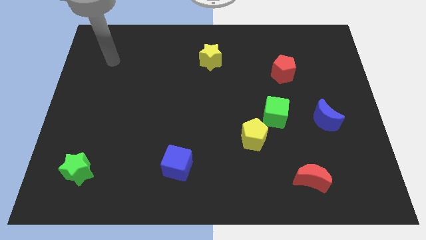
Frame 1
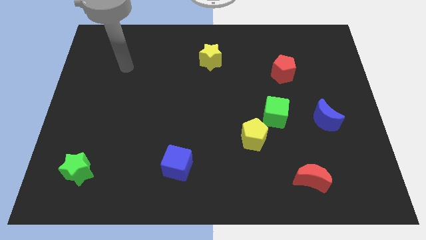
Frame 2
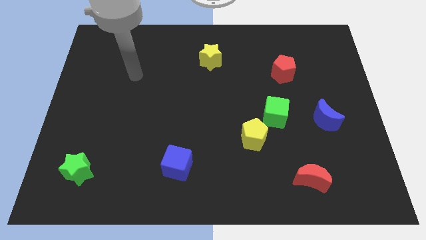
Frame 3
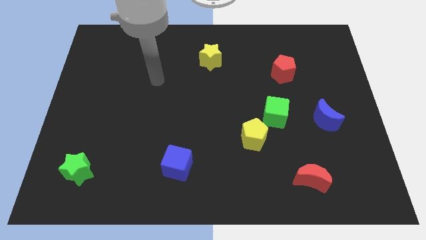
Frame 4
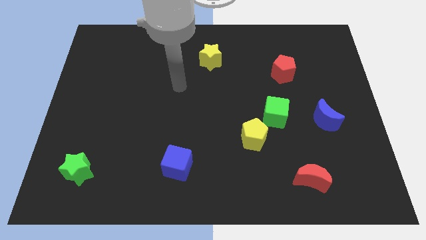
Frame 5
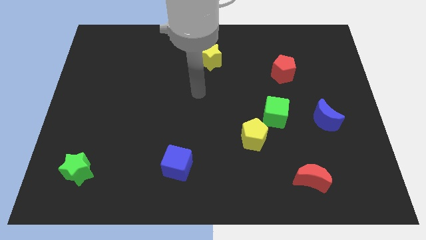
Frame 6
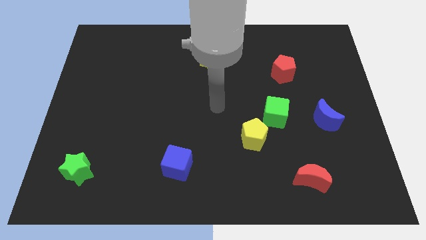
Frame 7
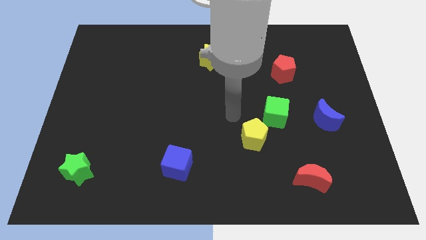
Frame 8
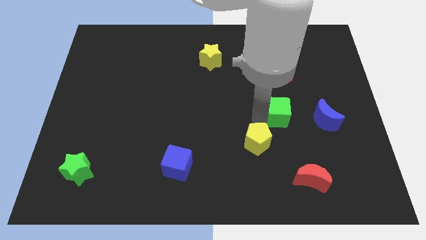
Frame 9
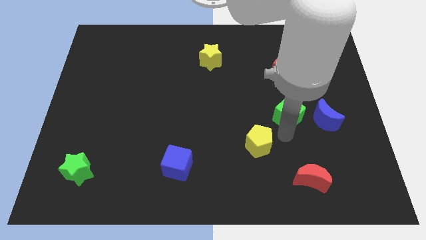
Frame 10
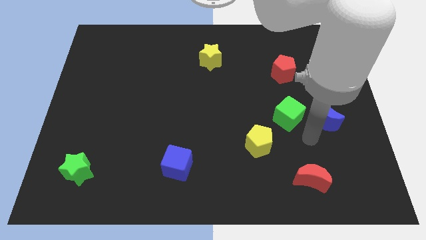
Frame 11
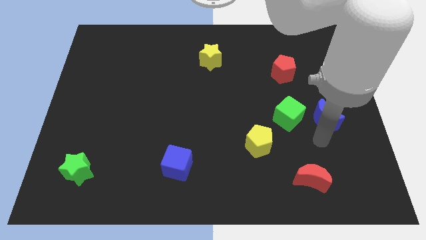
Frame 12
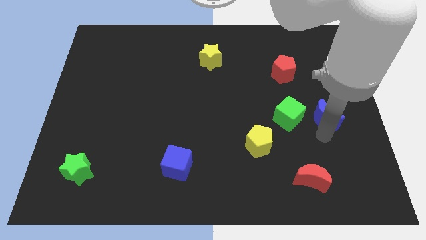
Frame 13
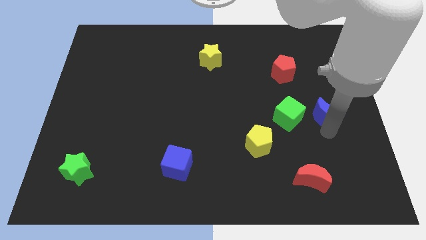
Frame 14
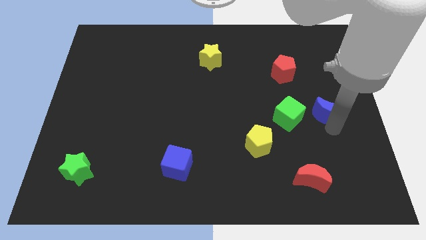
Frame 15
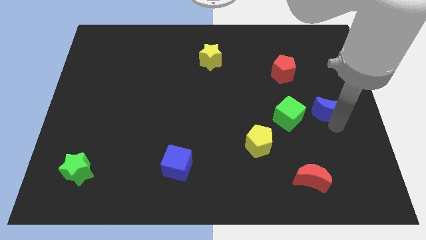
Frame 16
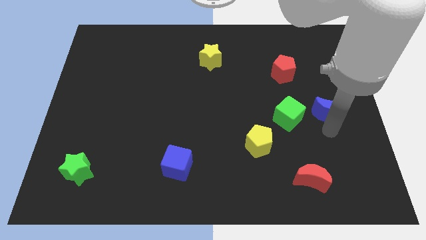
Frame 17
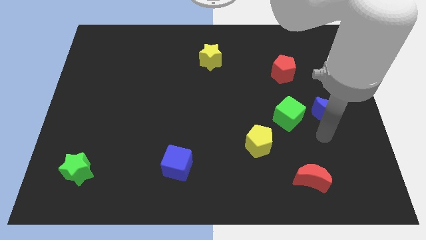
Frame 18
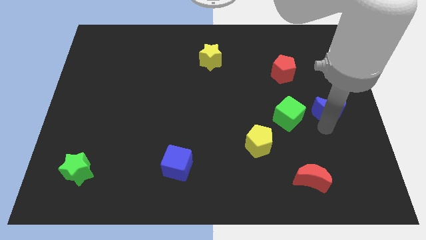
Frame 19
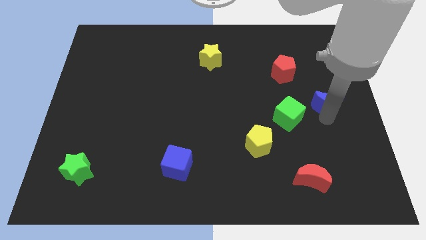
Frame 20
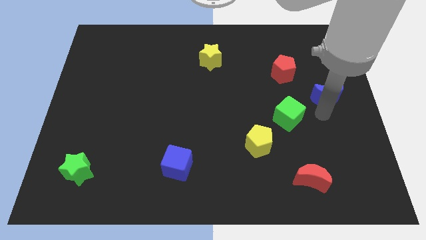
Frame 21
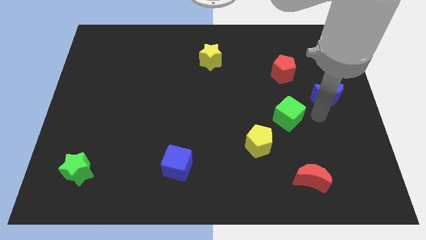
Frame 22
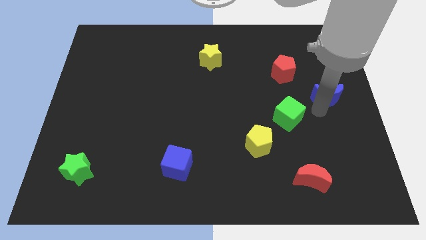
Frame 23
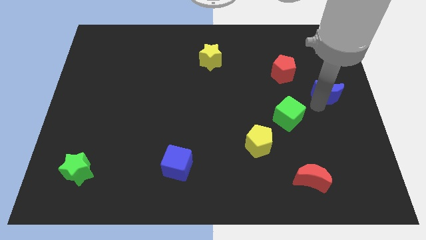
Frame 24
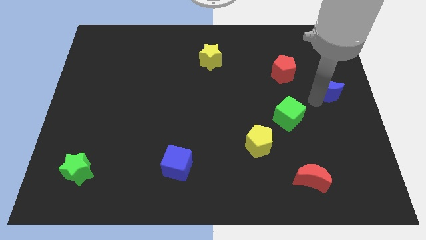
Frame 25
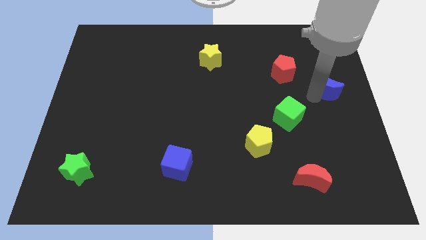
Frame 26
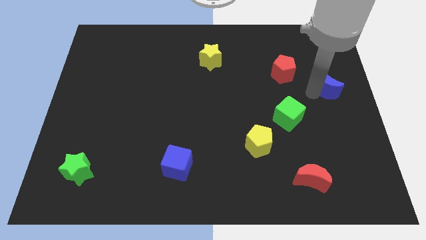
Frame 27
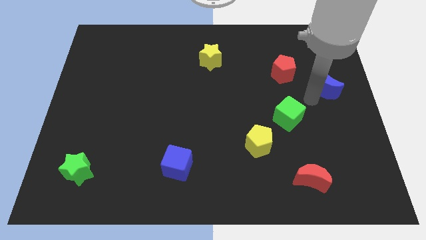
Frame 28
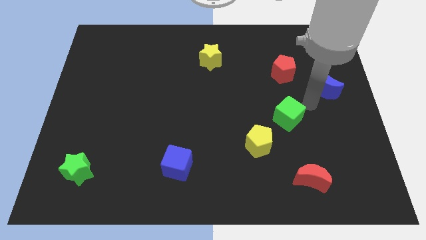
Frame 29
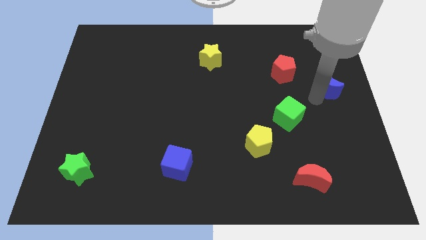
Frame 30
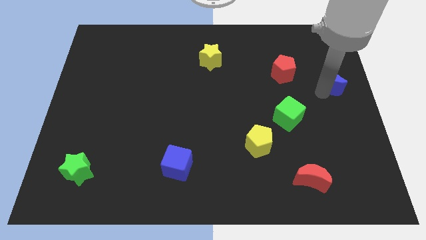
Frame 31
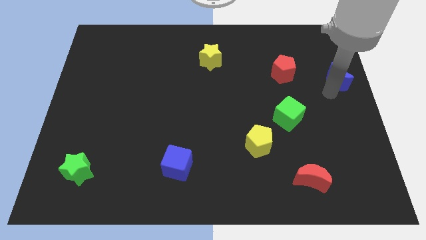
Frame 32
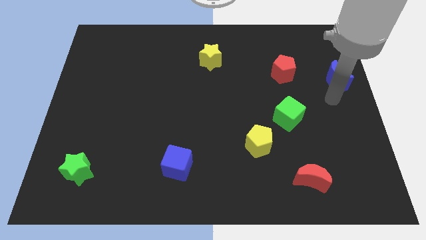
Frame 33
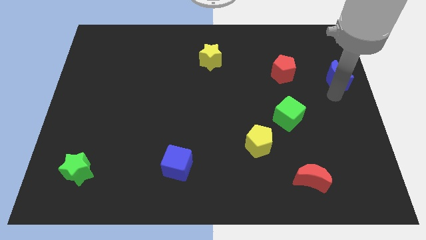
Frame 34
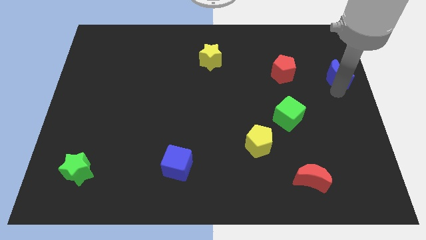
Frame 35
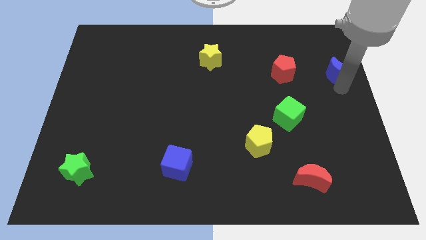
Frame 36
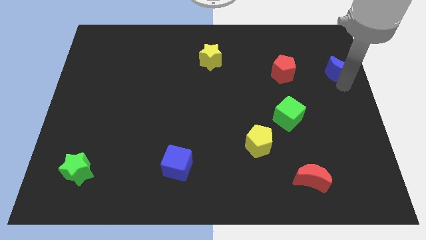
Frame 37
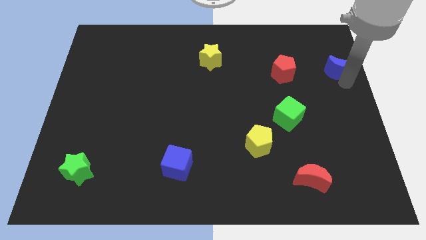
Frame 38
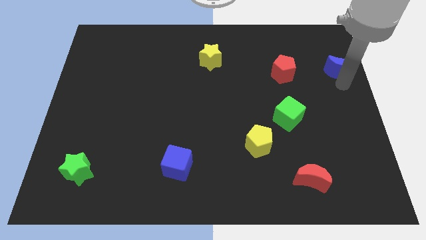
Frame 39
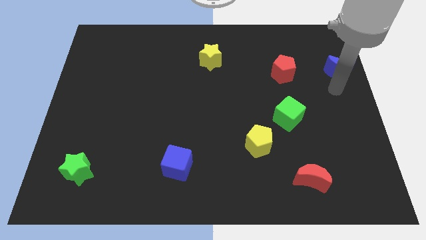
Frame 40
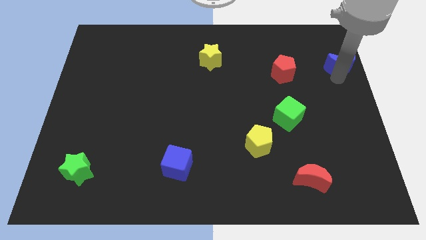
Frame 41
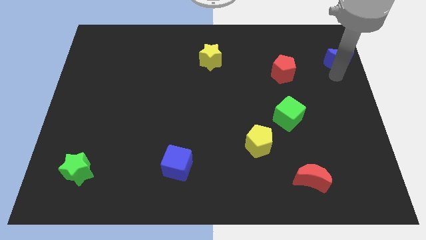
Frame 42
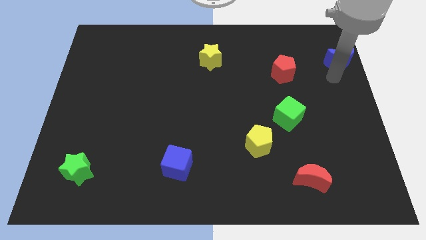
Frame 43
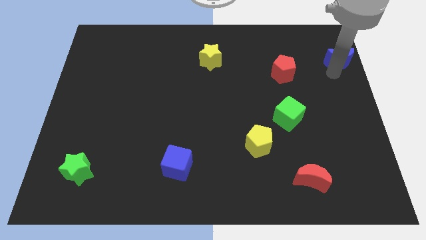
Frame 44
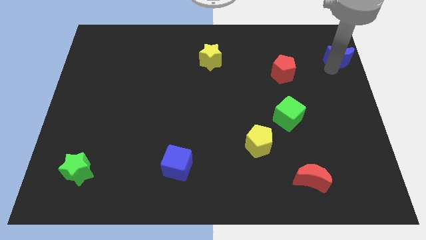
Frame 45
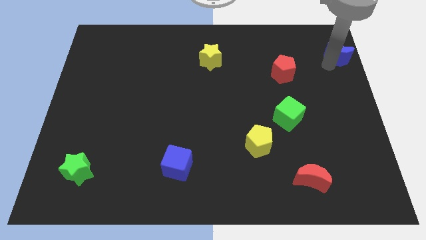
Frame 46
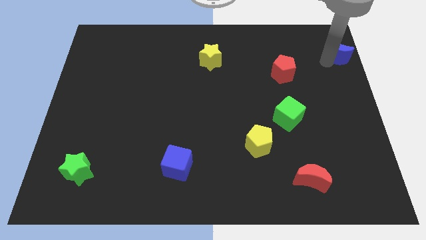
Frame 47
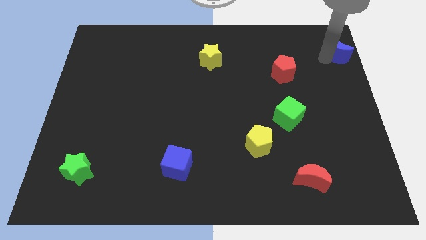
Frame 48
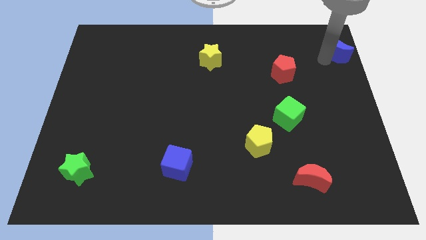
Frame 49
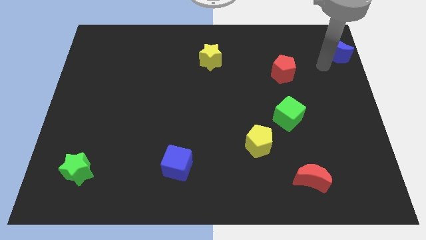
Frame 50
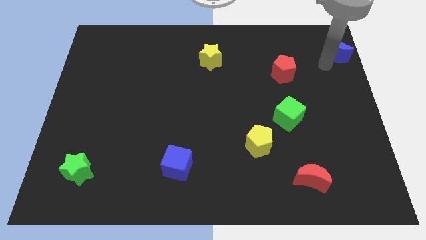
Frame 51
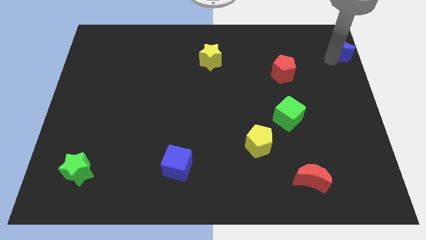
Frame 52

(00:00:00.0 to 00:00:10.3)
push the blue moon to the upper right corner

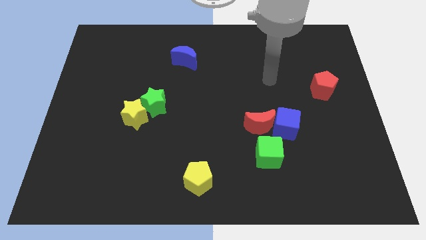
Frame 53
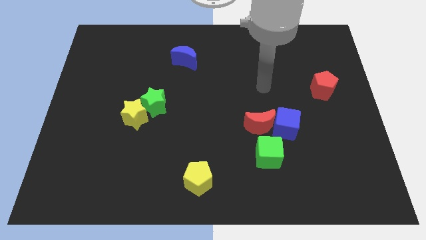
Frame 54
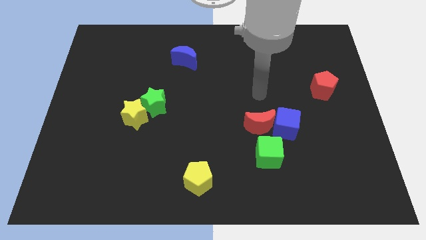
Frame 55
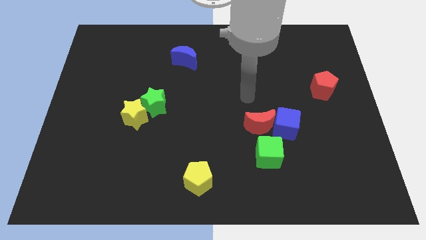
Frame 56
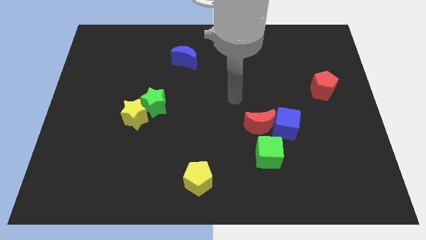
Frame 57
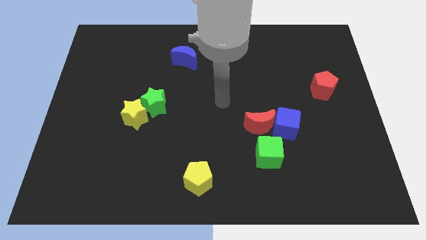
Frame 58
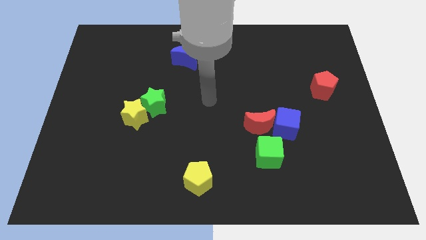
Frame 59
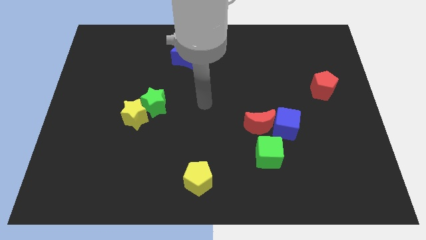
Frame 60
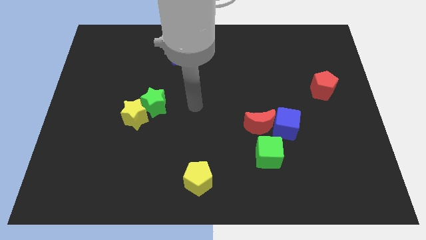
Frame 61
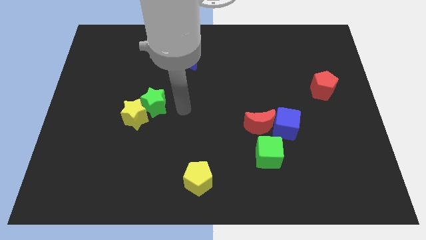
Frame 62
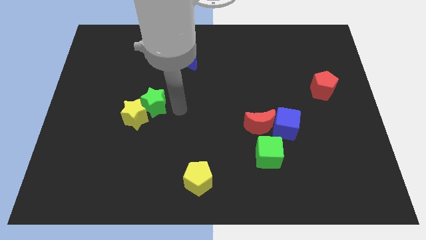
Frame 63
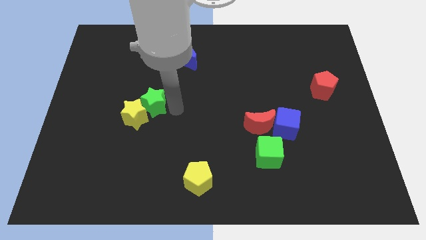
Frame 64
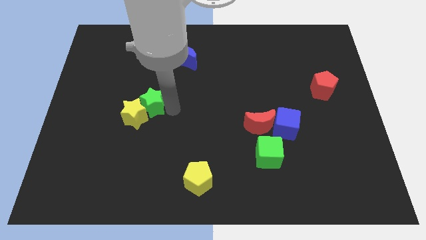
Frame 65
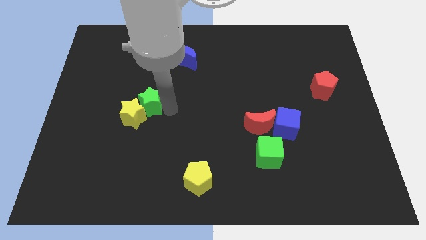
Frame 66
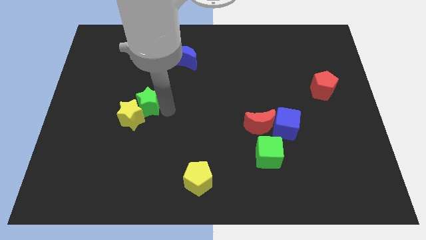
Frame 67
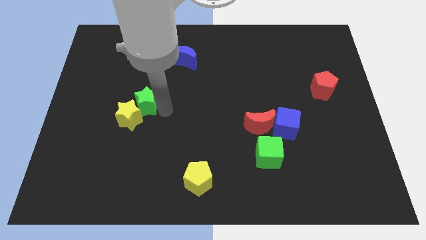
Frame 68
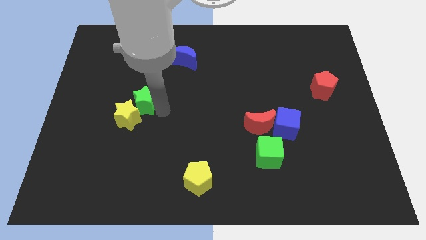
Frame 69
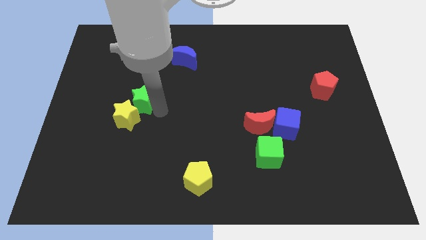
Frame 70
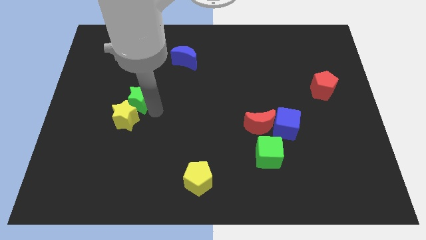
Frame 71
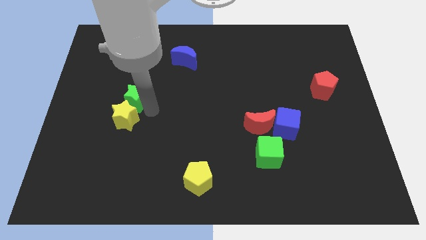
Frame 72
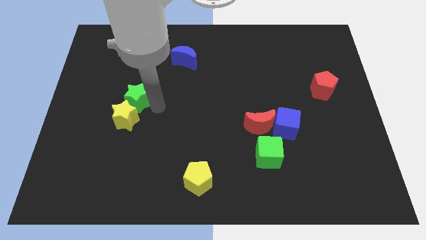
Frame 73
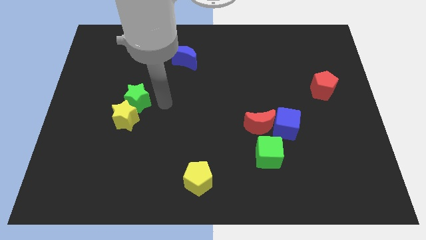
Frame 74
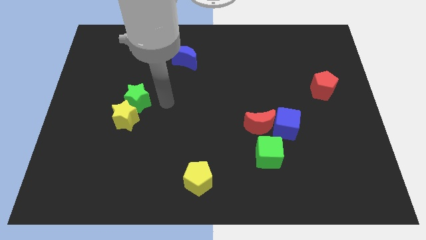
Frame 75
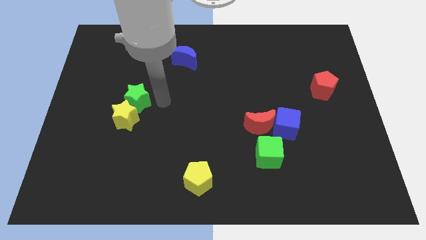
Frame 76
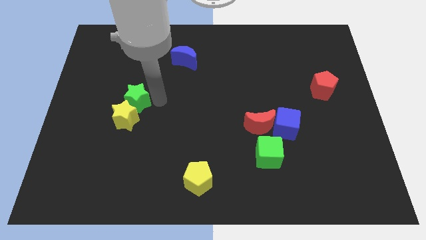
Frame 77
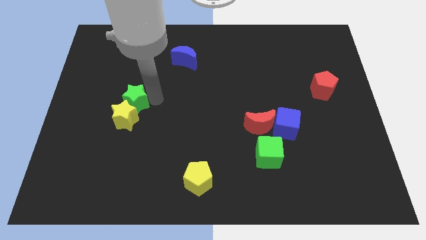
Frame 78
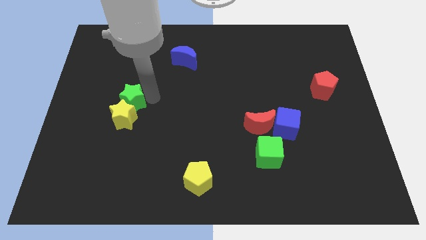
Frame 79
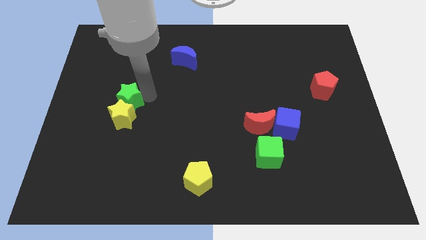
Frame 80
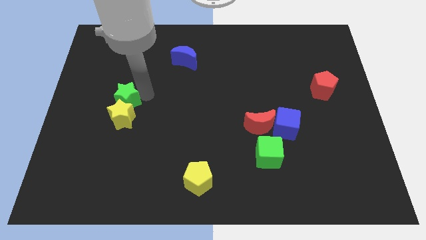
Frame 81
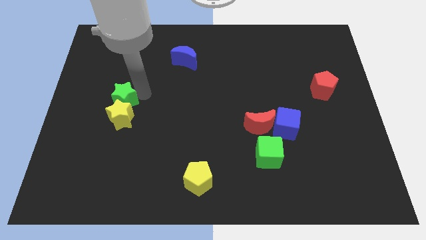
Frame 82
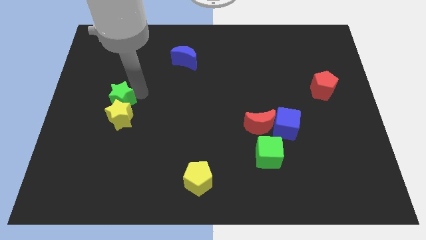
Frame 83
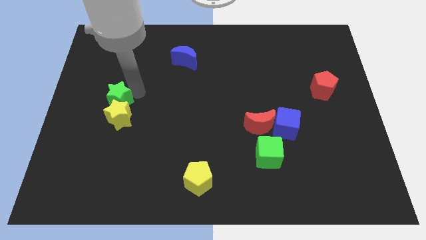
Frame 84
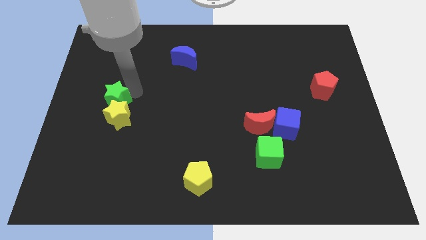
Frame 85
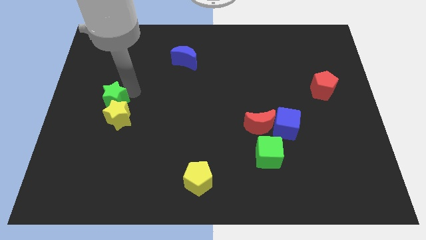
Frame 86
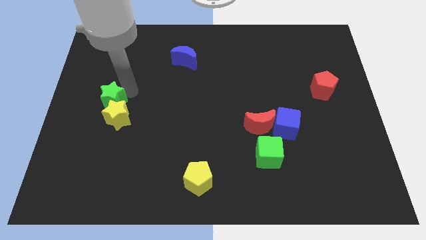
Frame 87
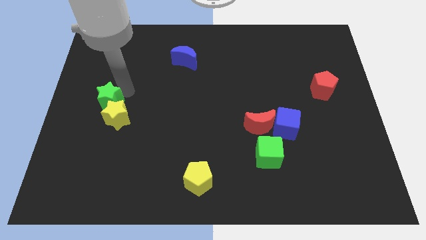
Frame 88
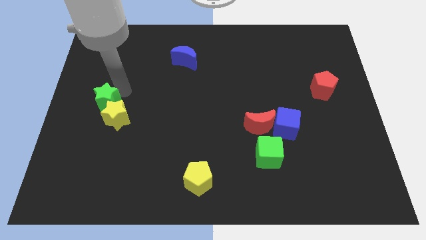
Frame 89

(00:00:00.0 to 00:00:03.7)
move the green star to the left side
